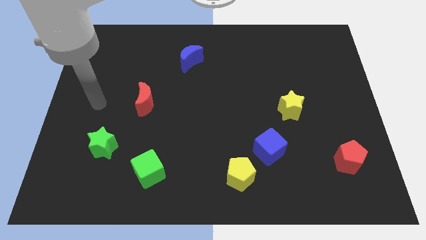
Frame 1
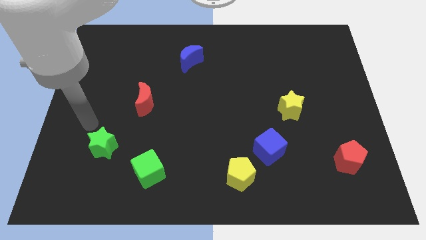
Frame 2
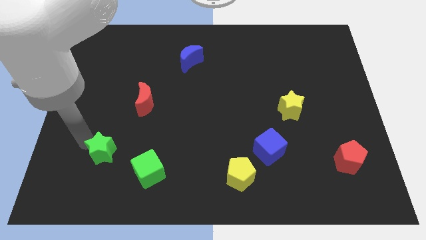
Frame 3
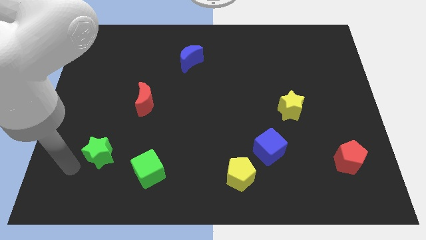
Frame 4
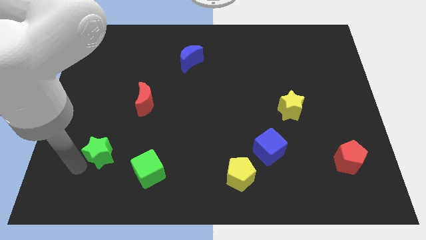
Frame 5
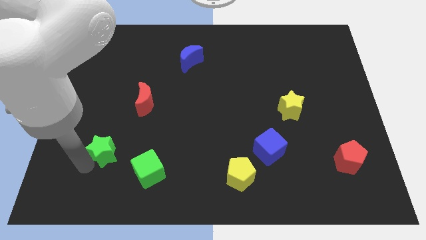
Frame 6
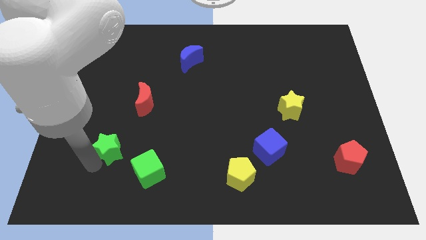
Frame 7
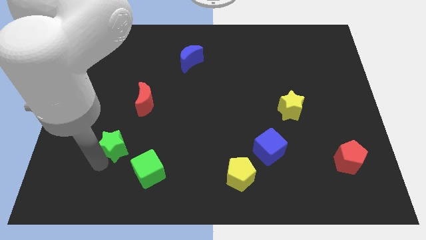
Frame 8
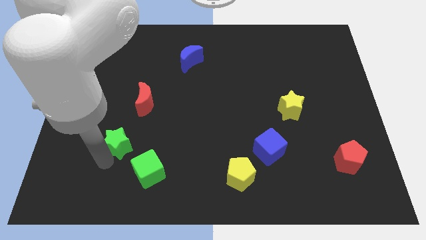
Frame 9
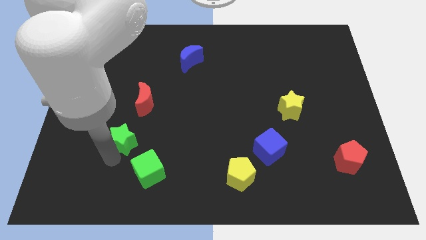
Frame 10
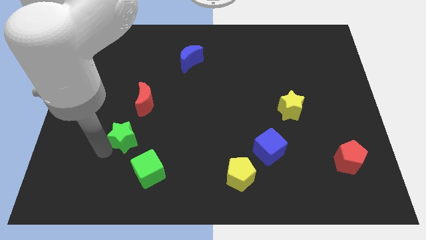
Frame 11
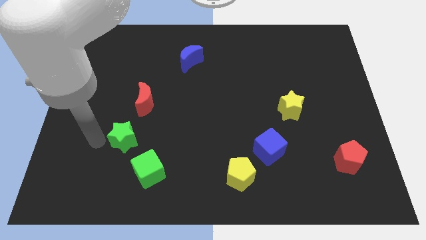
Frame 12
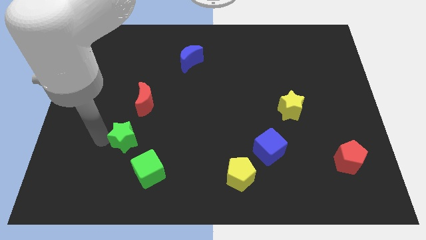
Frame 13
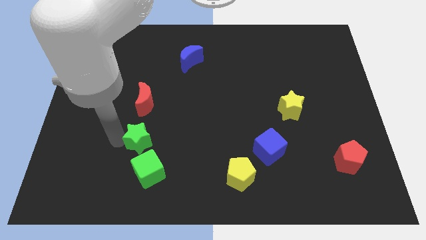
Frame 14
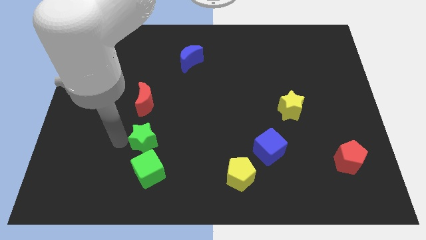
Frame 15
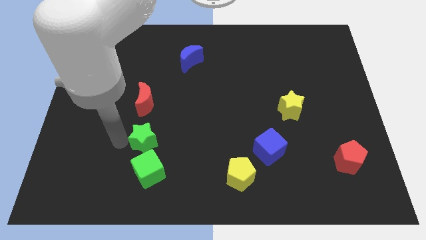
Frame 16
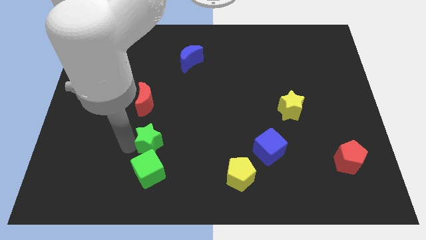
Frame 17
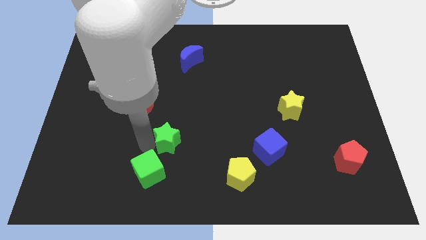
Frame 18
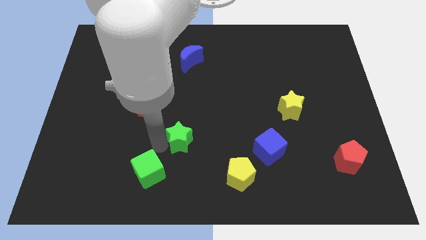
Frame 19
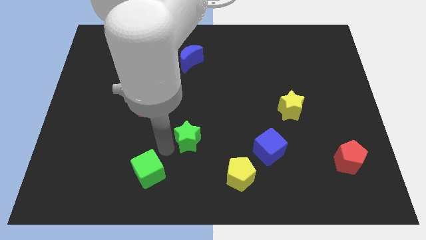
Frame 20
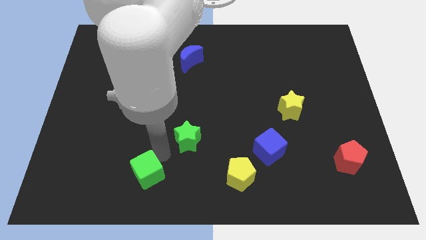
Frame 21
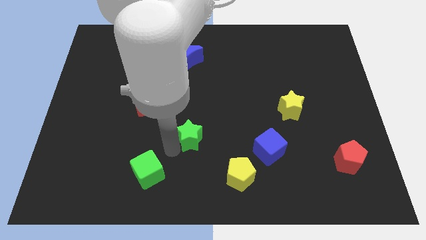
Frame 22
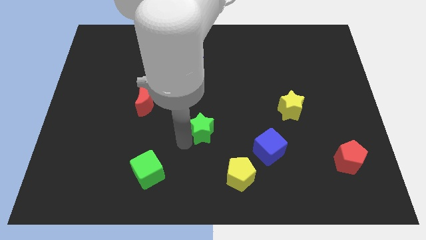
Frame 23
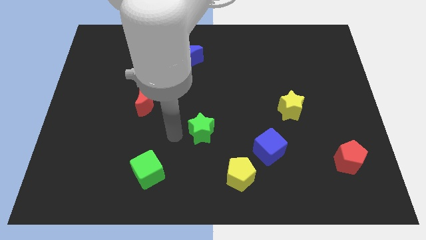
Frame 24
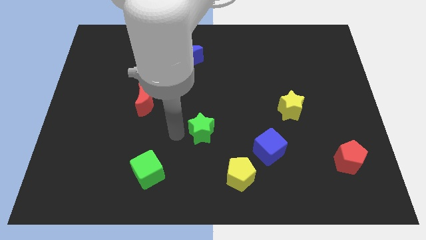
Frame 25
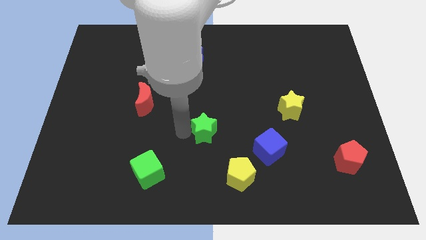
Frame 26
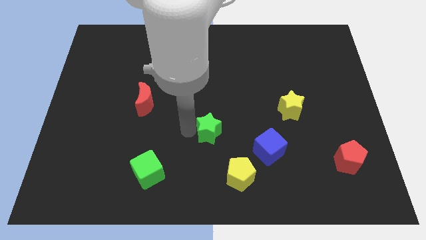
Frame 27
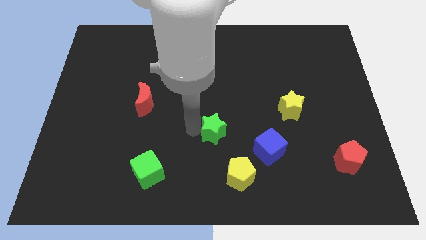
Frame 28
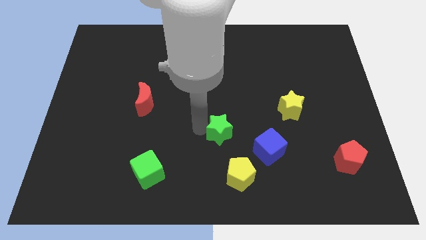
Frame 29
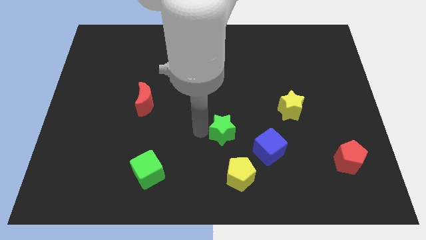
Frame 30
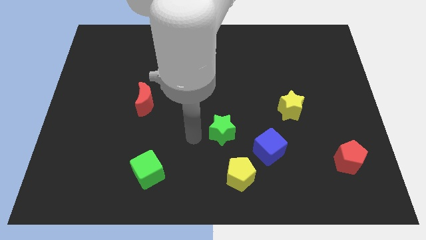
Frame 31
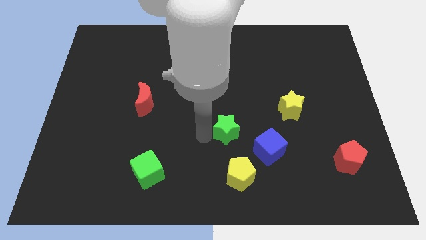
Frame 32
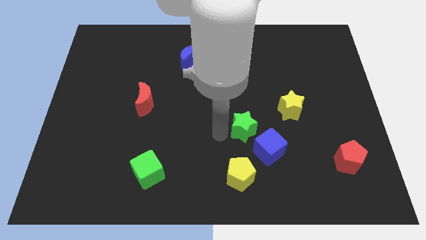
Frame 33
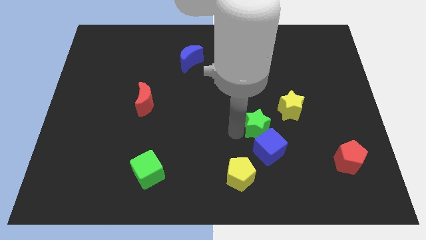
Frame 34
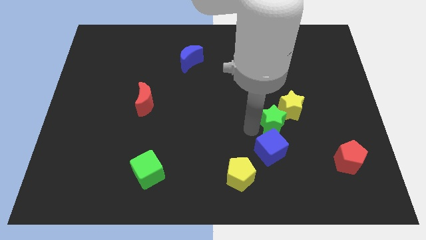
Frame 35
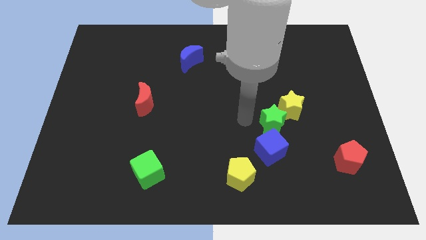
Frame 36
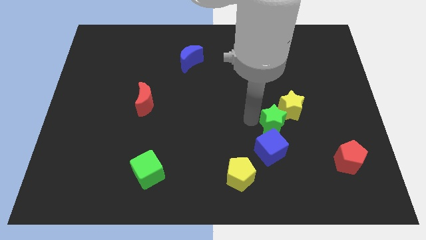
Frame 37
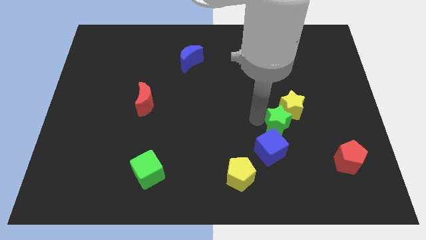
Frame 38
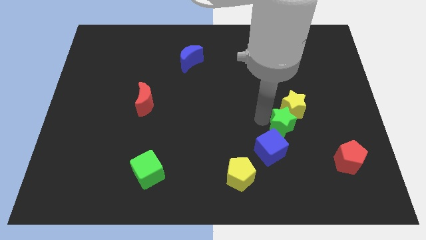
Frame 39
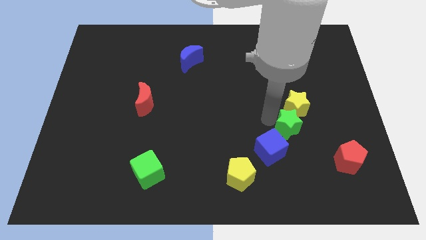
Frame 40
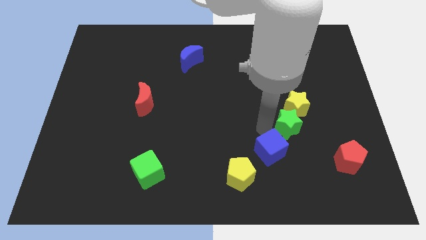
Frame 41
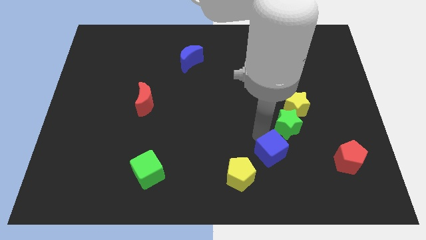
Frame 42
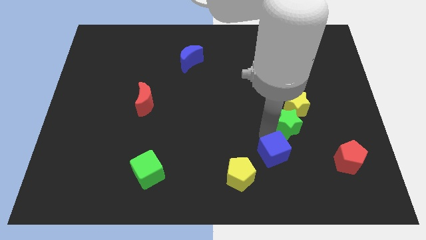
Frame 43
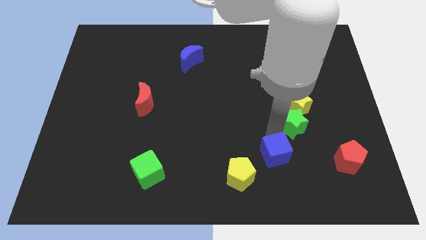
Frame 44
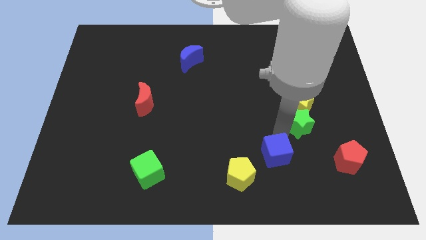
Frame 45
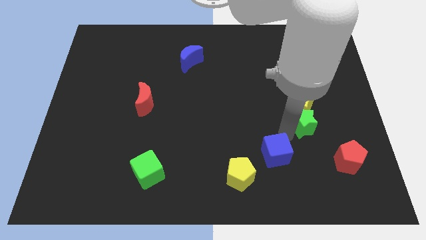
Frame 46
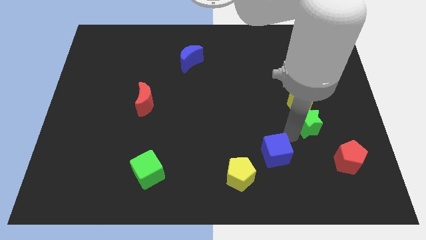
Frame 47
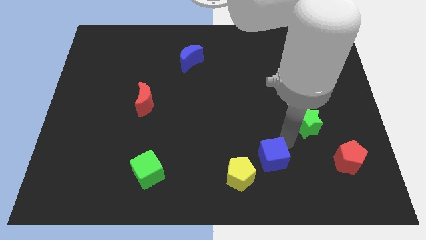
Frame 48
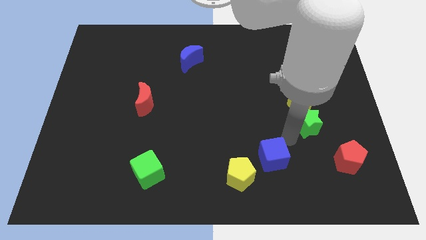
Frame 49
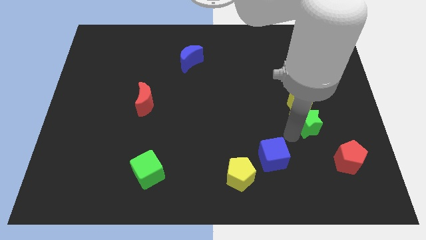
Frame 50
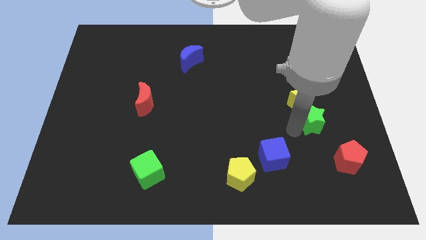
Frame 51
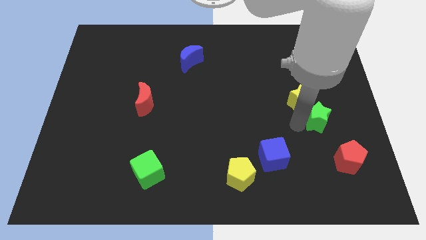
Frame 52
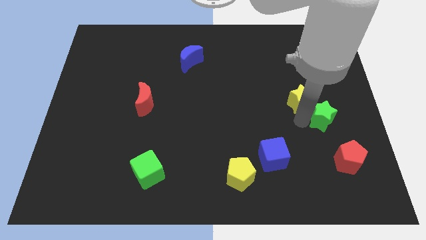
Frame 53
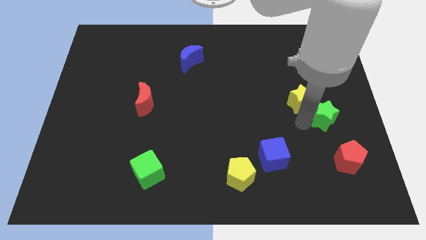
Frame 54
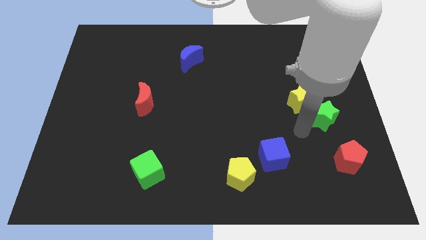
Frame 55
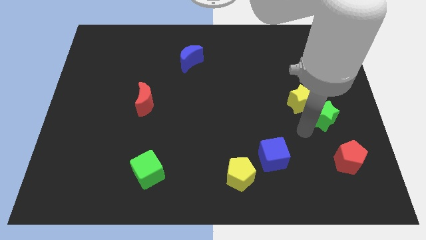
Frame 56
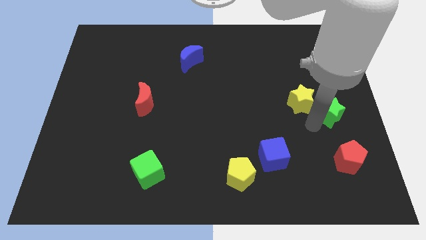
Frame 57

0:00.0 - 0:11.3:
put the green star to the right side

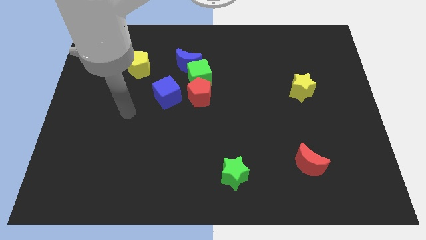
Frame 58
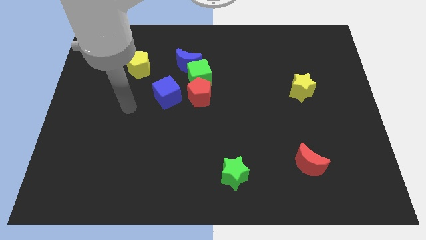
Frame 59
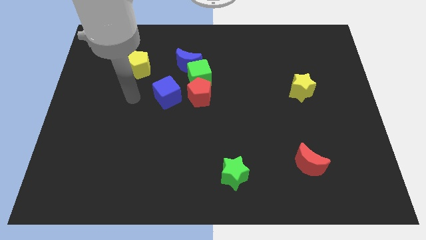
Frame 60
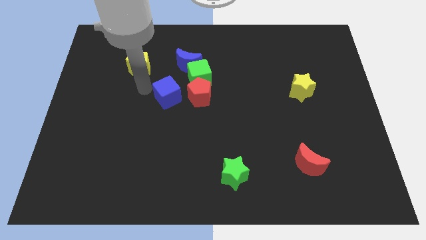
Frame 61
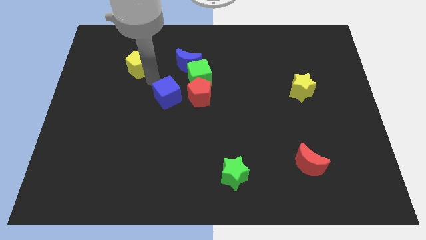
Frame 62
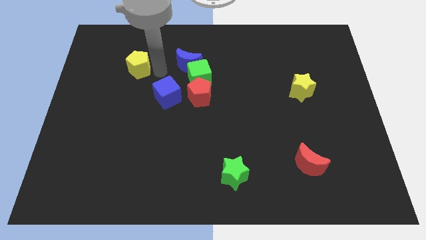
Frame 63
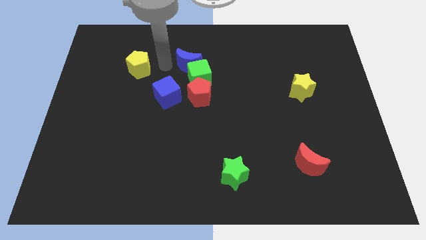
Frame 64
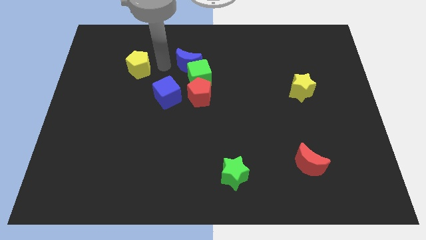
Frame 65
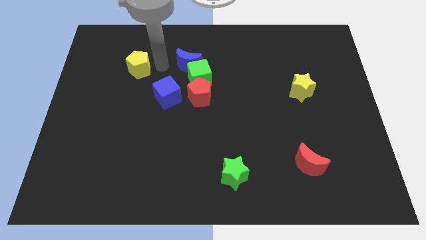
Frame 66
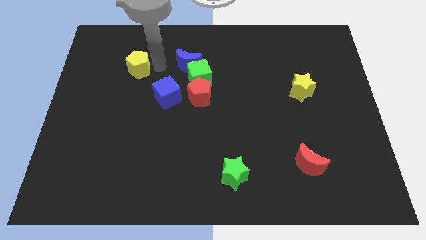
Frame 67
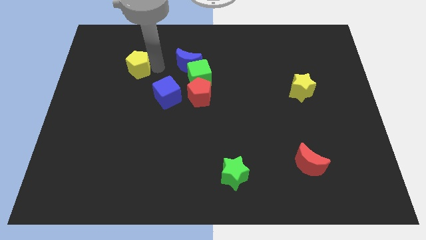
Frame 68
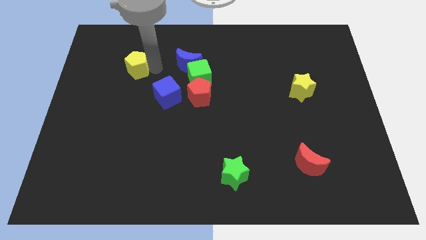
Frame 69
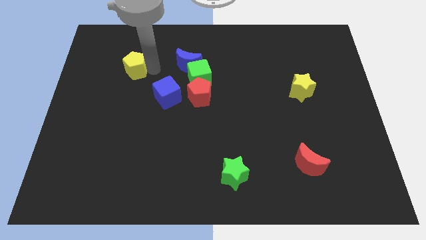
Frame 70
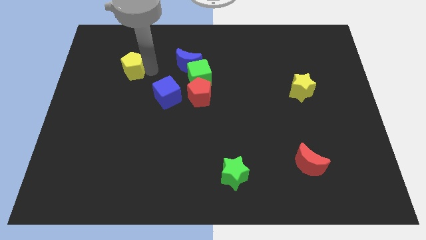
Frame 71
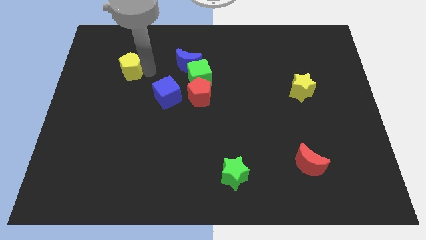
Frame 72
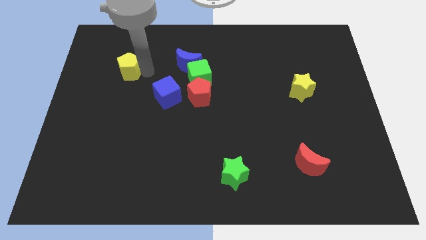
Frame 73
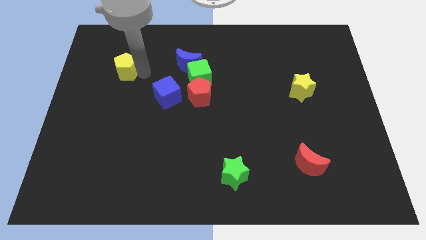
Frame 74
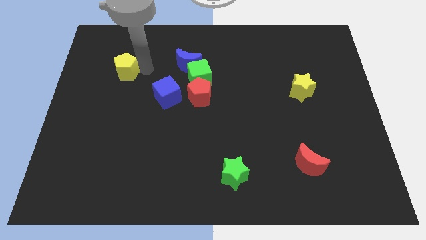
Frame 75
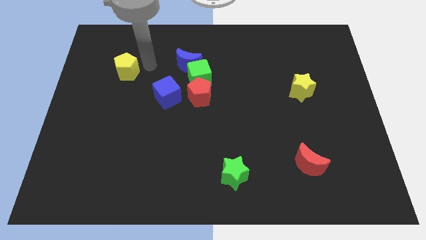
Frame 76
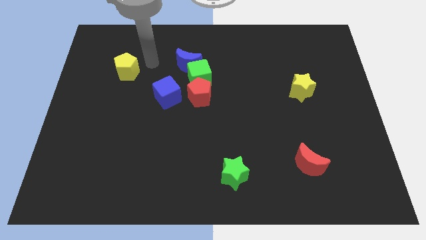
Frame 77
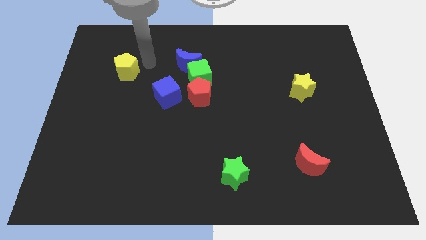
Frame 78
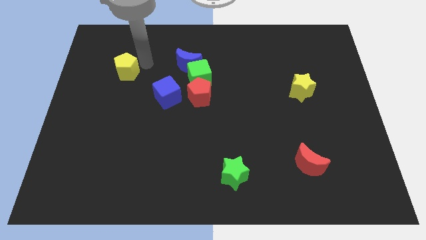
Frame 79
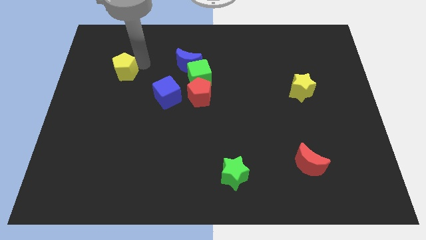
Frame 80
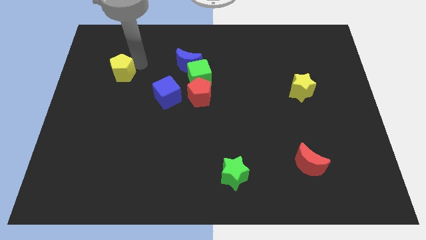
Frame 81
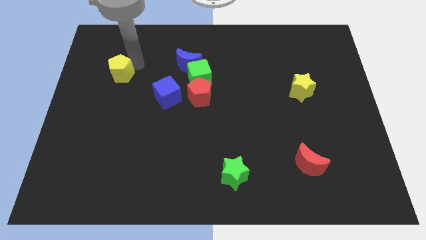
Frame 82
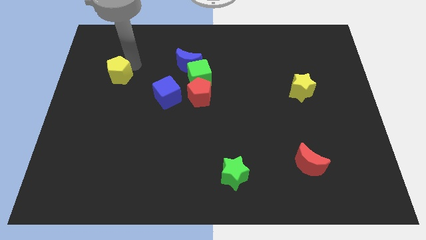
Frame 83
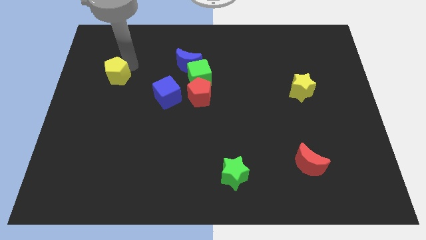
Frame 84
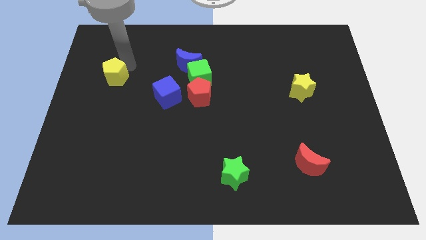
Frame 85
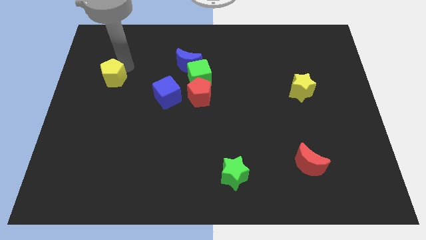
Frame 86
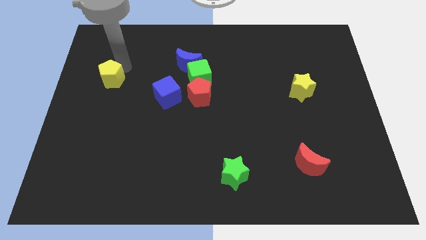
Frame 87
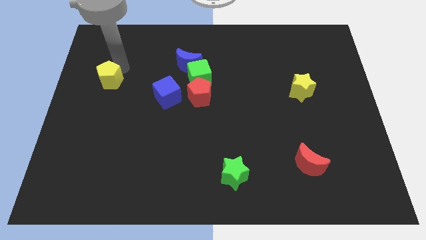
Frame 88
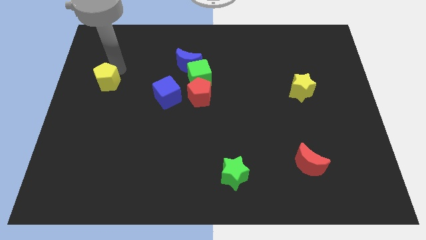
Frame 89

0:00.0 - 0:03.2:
slide the yellow pentagon to the left side
